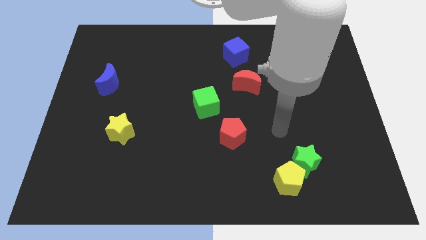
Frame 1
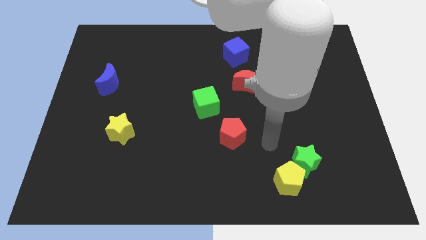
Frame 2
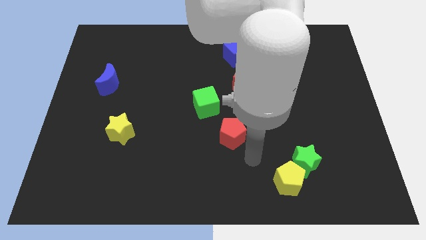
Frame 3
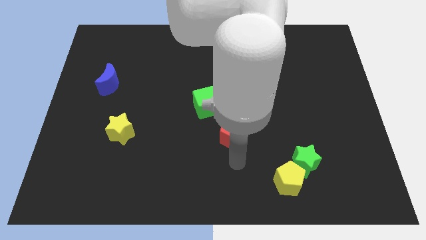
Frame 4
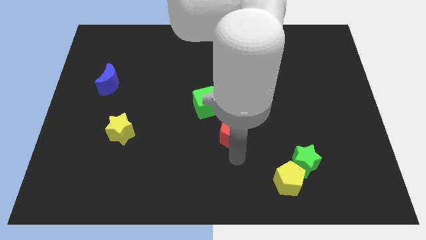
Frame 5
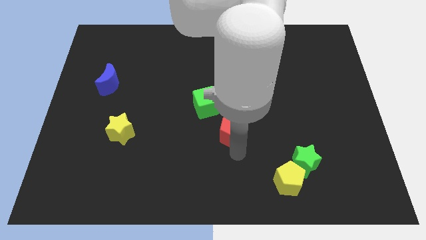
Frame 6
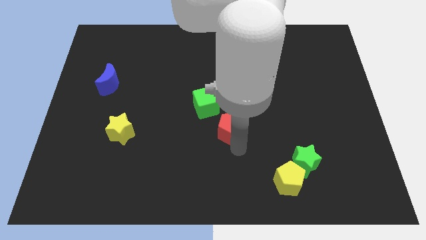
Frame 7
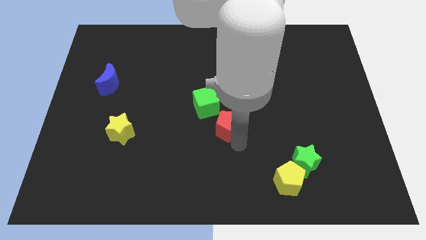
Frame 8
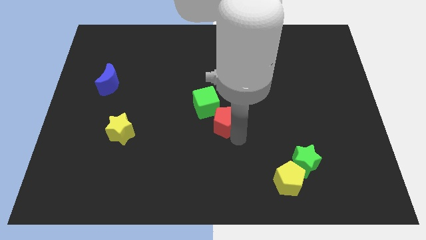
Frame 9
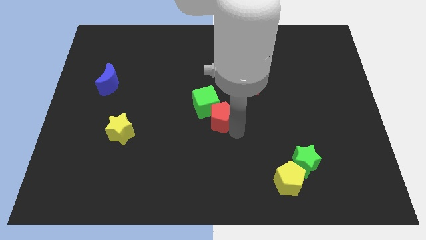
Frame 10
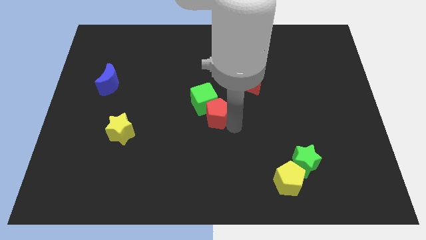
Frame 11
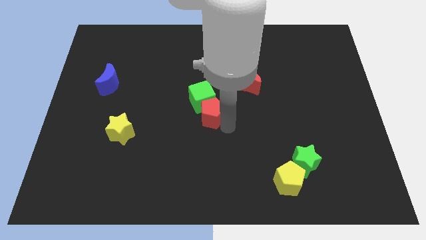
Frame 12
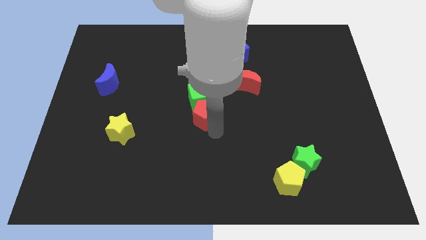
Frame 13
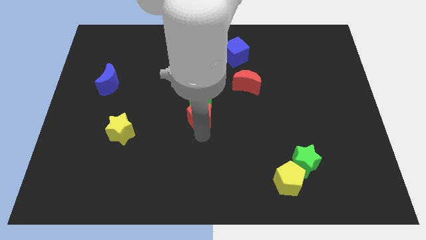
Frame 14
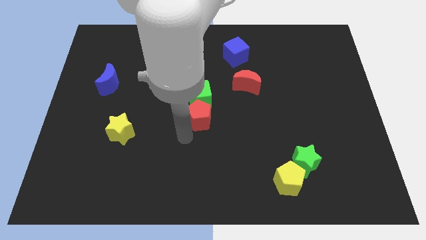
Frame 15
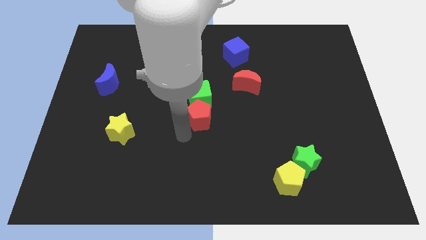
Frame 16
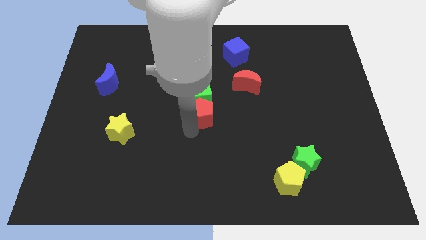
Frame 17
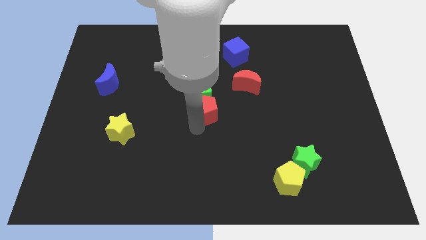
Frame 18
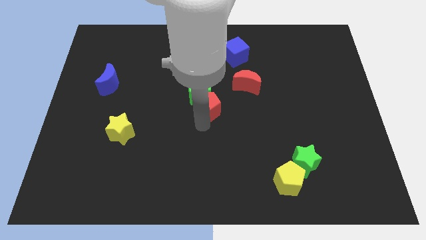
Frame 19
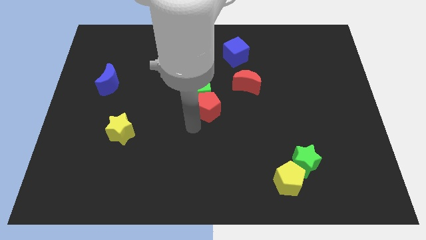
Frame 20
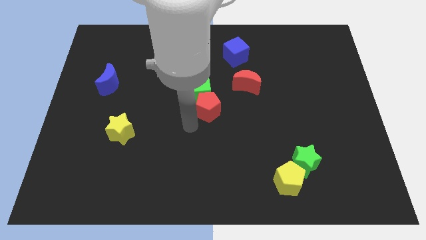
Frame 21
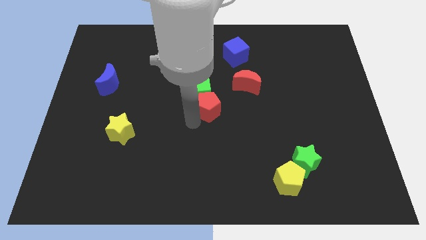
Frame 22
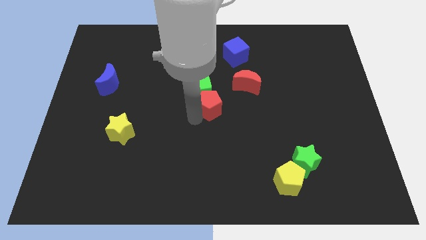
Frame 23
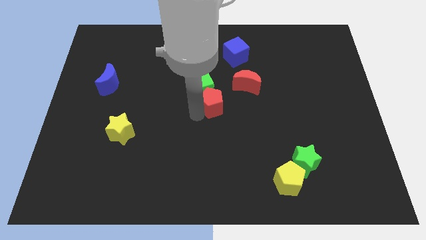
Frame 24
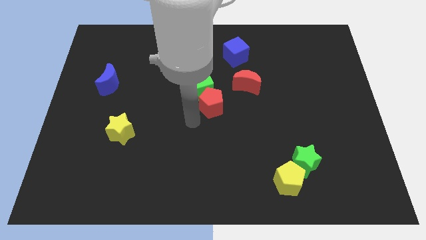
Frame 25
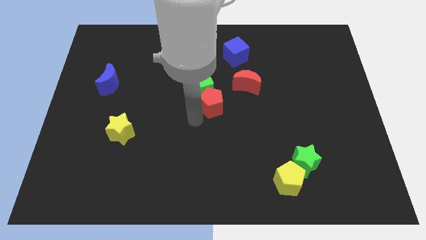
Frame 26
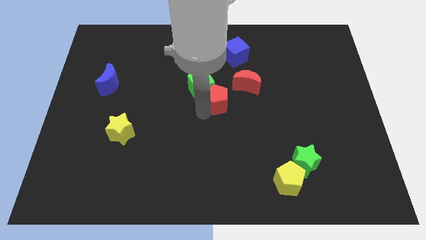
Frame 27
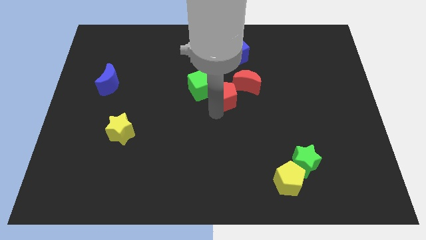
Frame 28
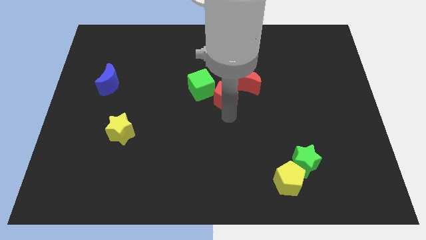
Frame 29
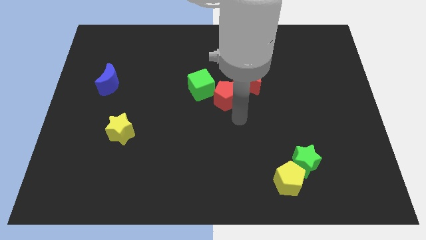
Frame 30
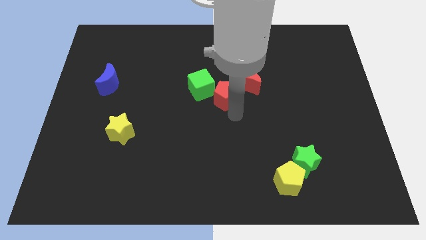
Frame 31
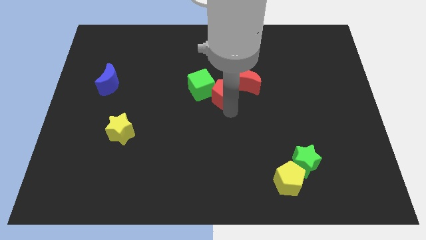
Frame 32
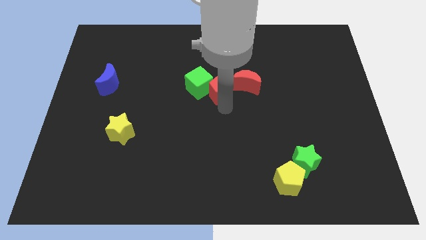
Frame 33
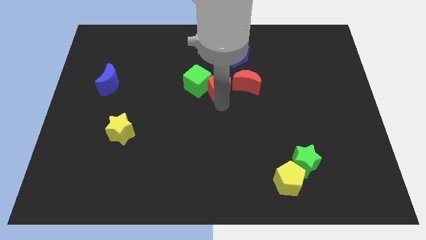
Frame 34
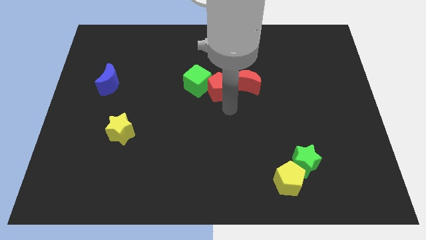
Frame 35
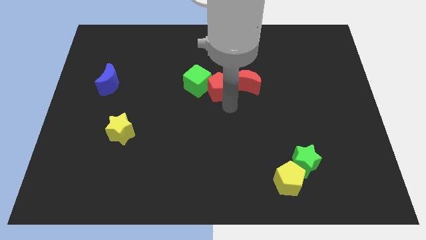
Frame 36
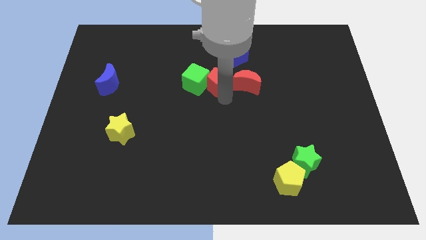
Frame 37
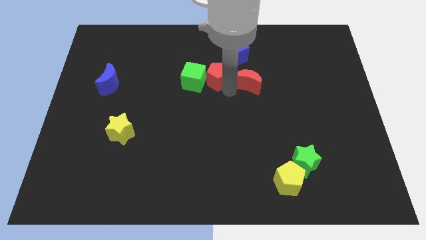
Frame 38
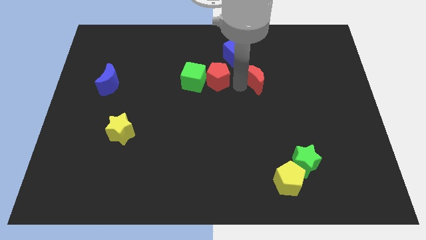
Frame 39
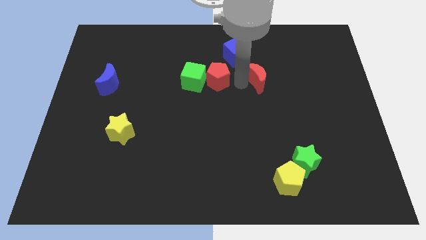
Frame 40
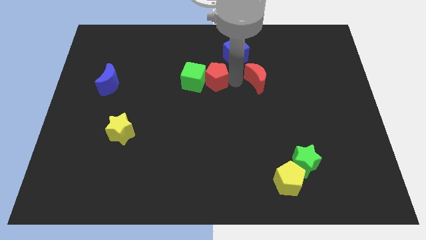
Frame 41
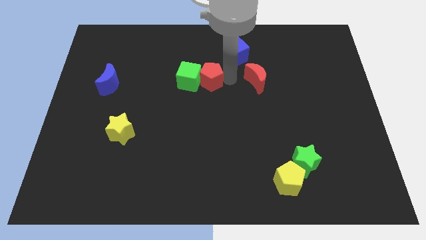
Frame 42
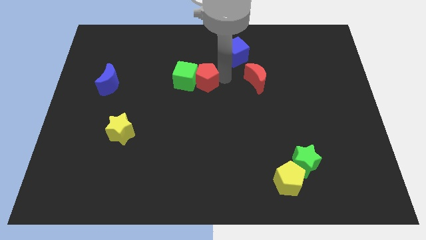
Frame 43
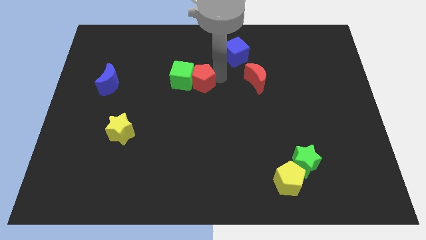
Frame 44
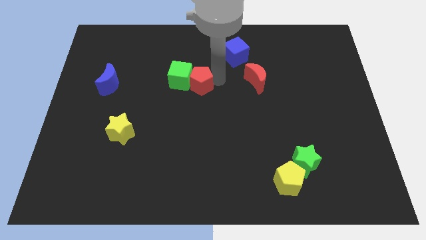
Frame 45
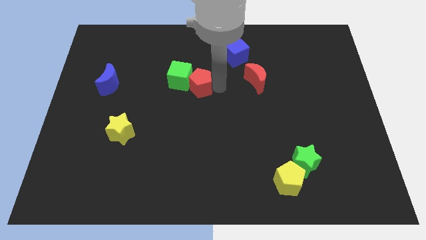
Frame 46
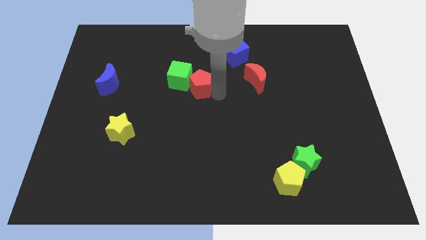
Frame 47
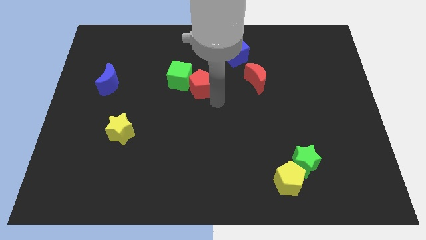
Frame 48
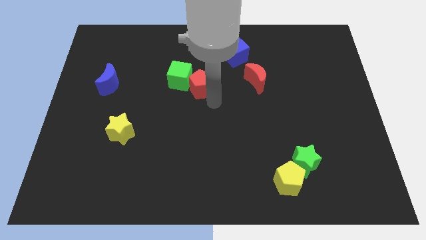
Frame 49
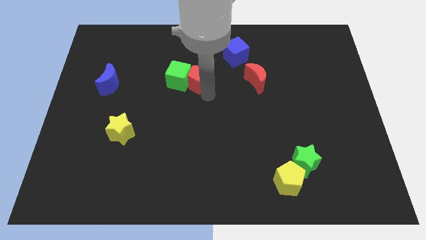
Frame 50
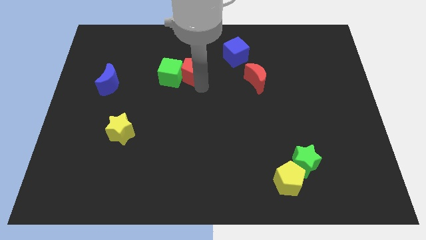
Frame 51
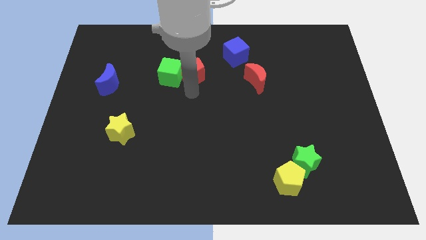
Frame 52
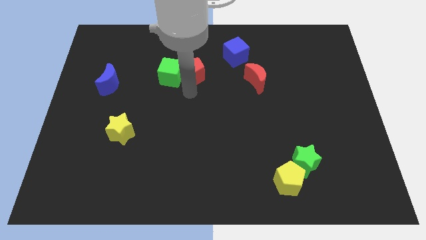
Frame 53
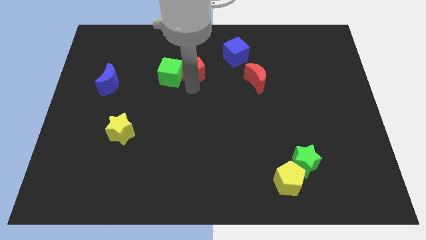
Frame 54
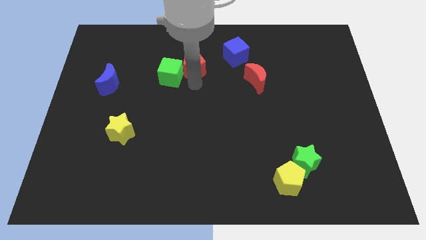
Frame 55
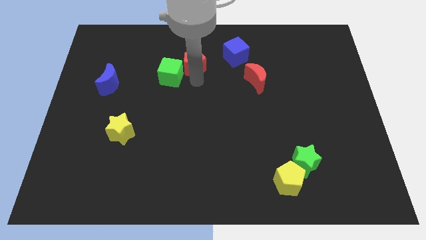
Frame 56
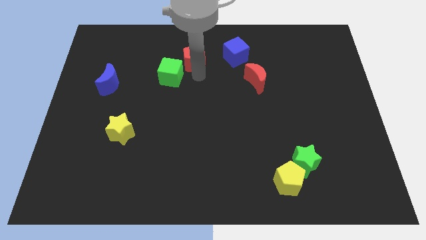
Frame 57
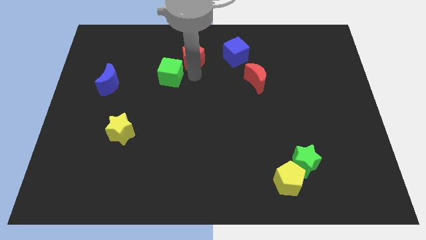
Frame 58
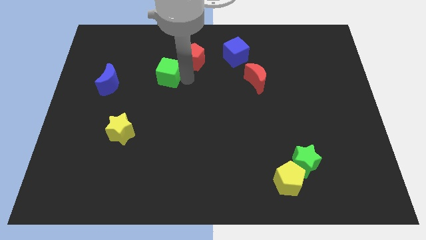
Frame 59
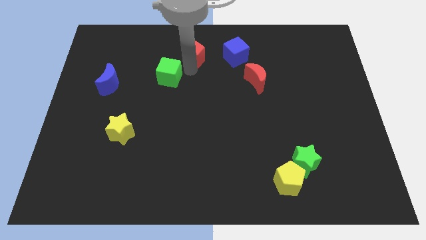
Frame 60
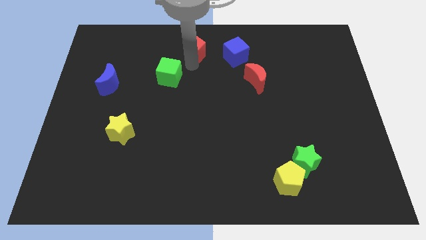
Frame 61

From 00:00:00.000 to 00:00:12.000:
push the red pentagon to the towards your base
